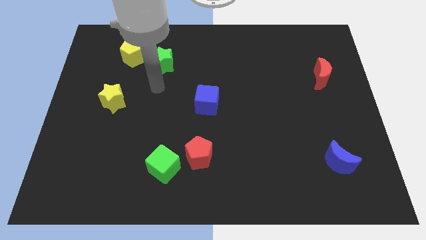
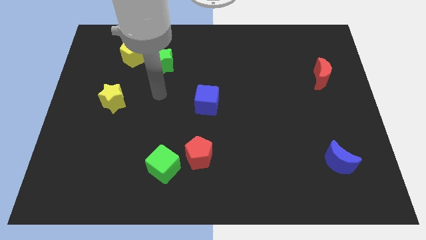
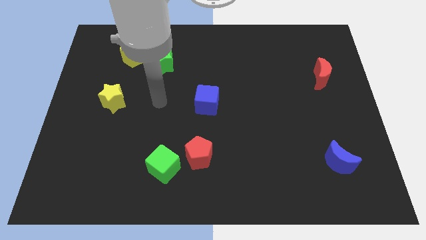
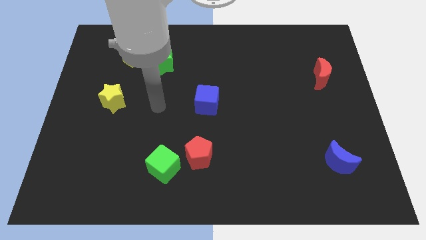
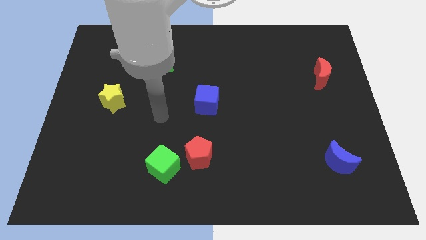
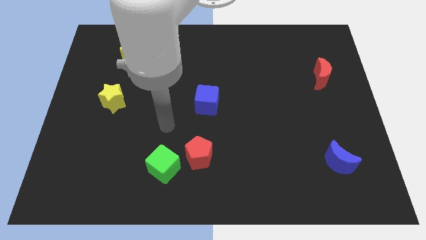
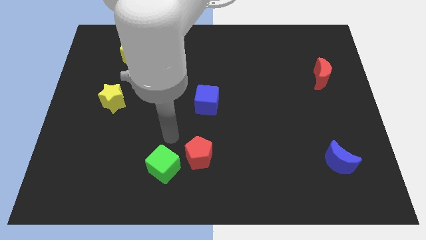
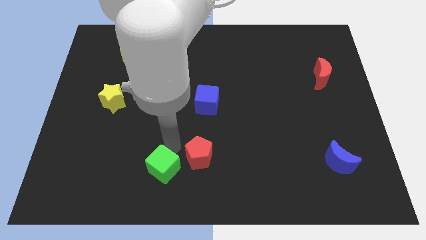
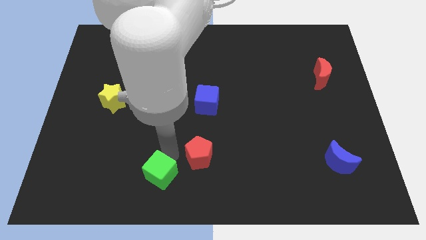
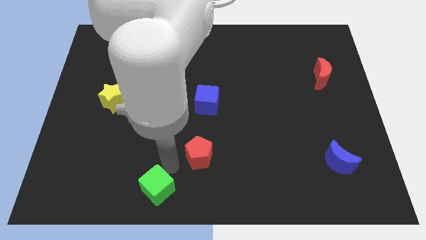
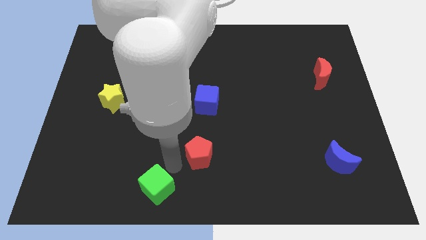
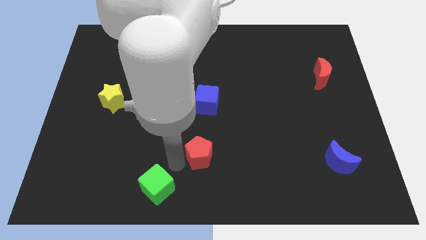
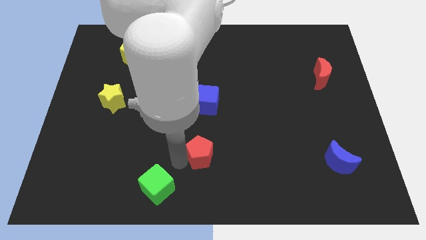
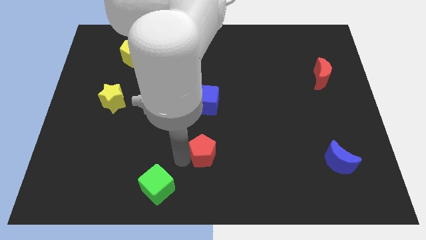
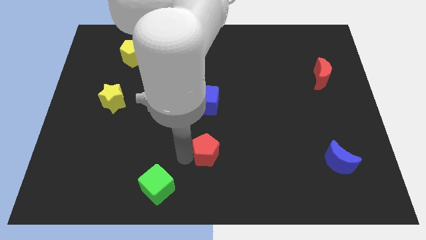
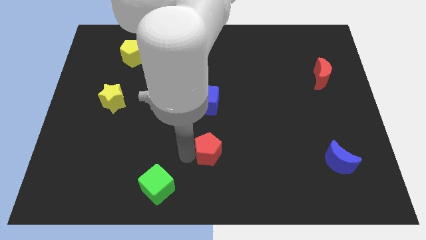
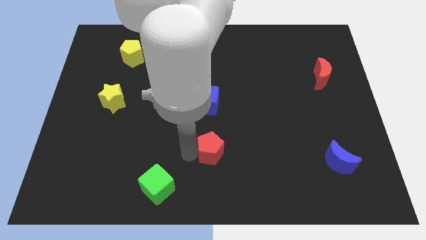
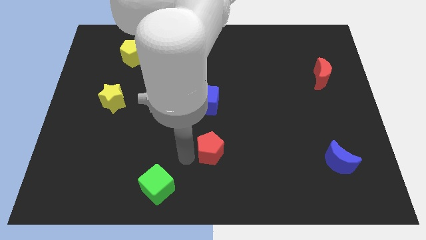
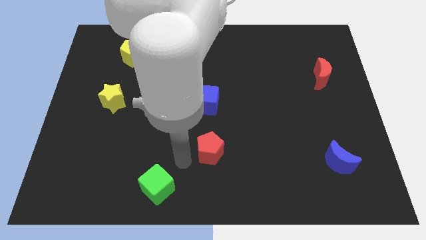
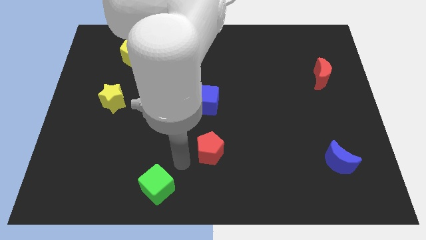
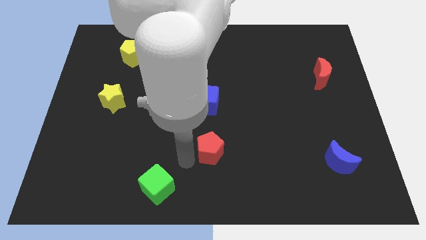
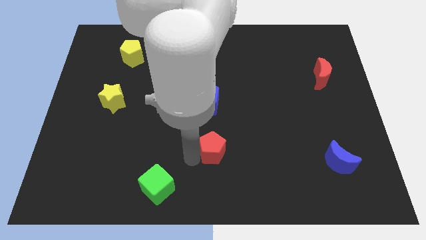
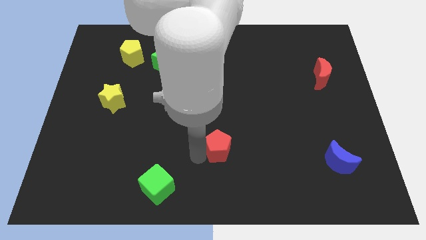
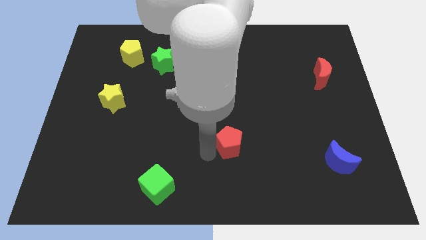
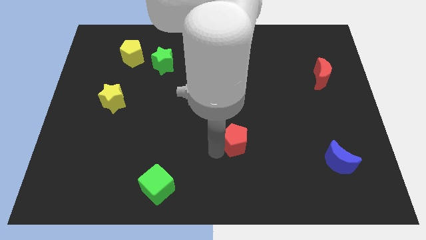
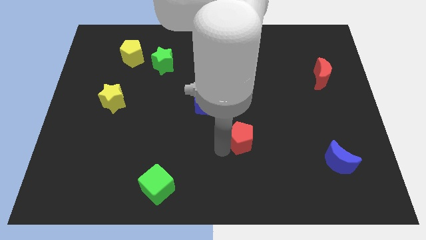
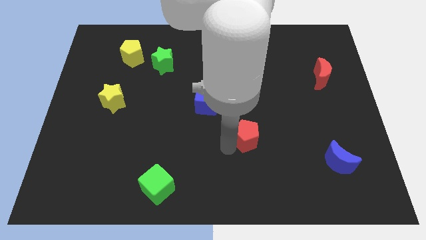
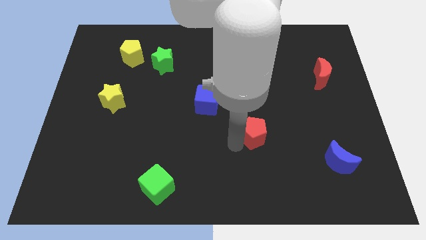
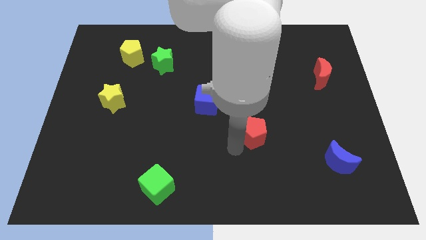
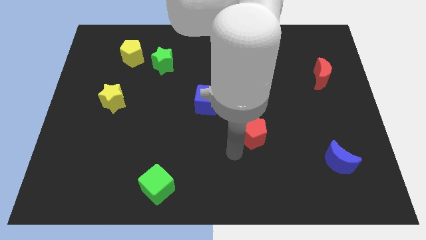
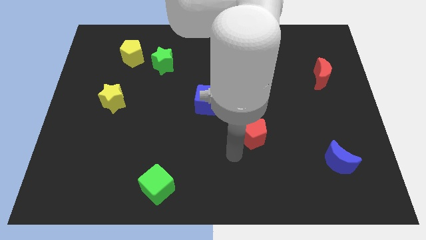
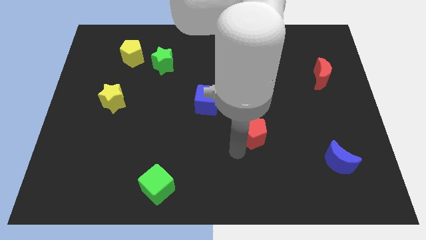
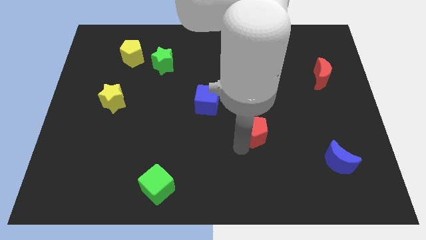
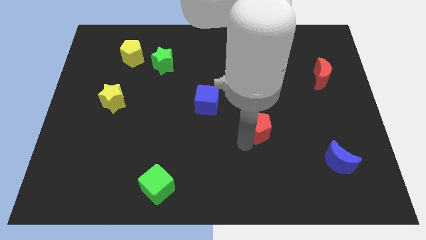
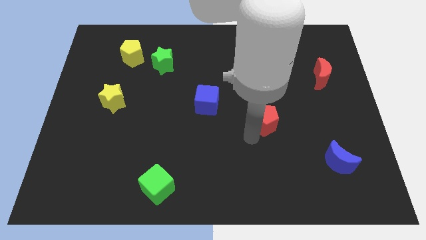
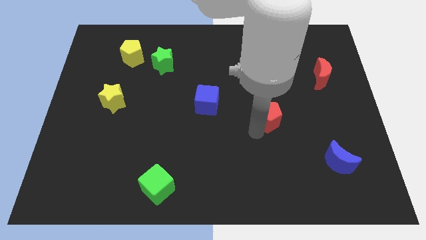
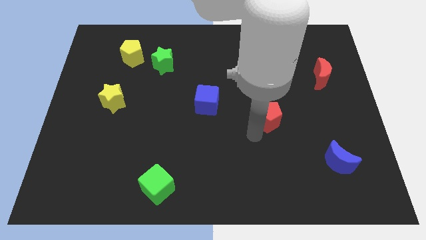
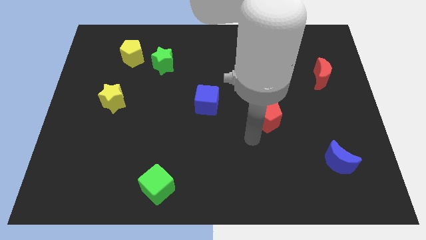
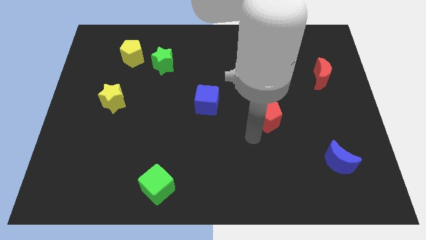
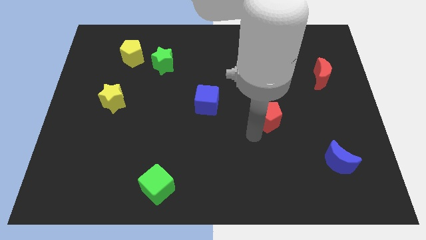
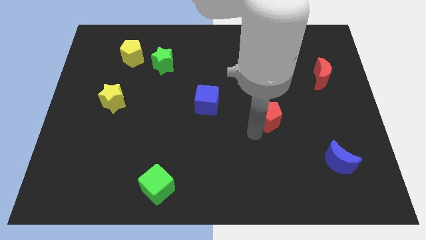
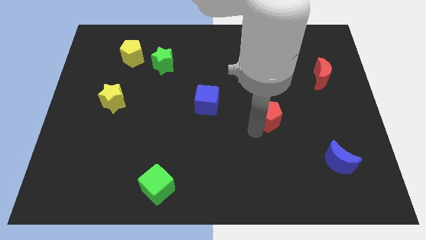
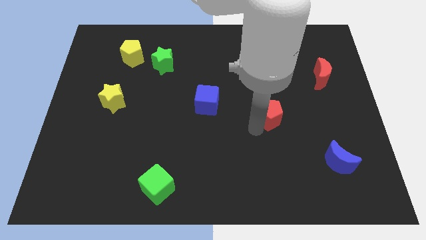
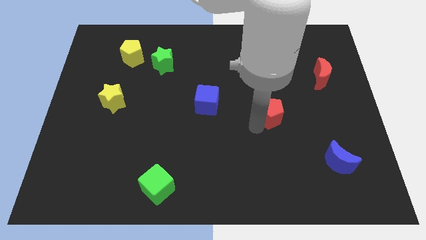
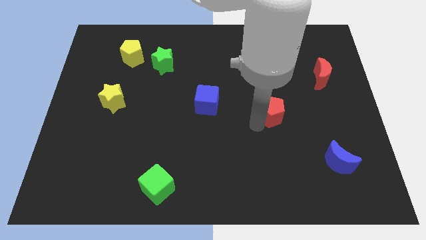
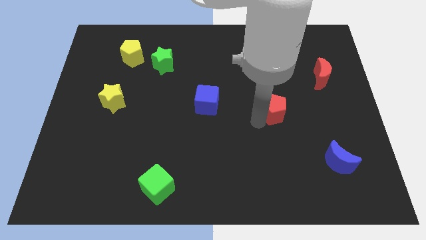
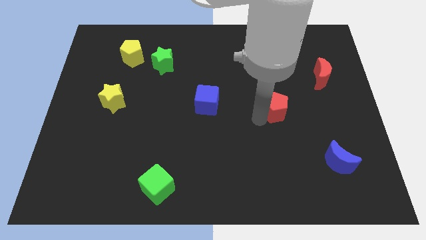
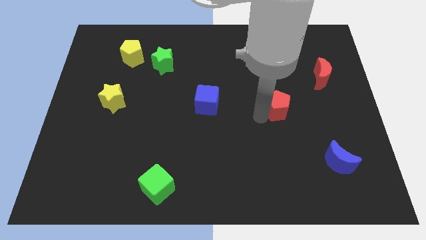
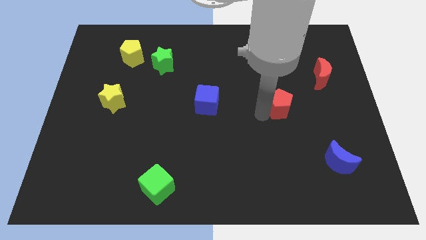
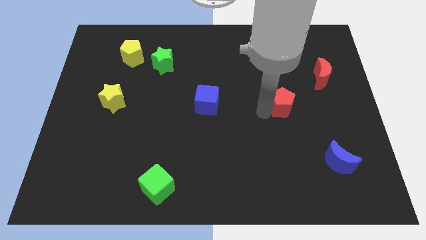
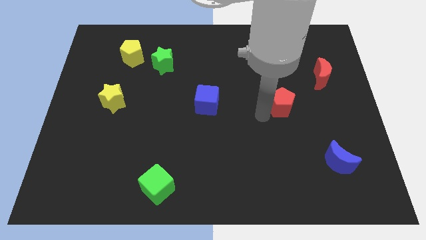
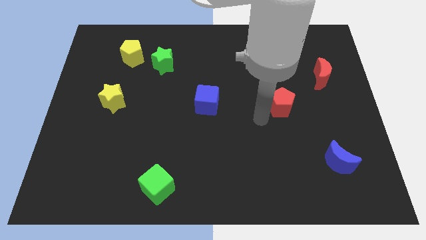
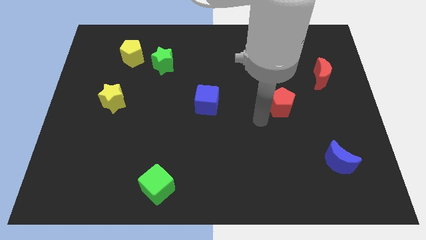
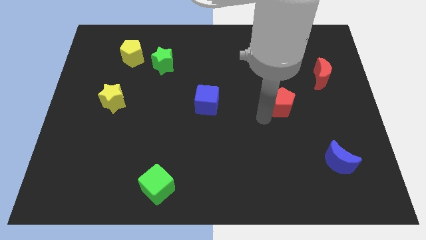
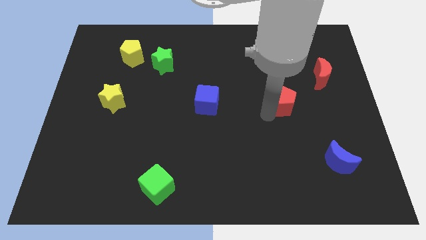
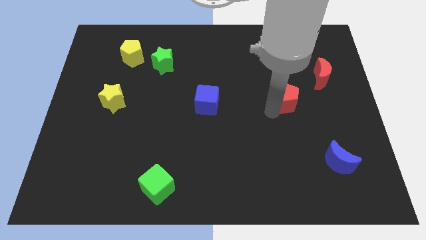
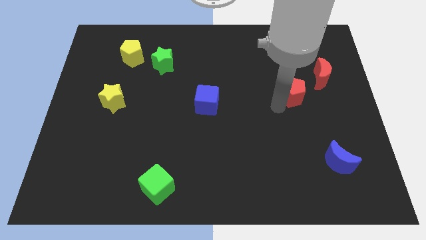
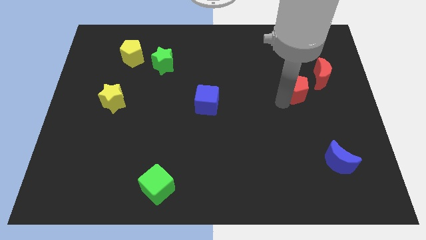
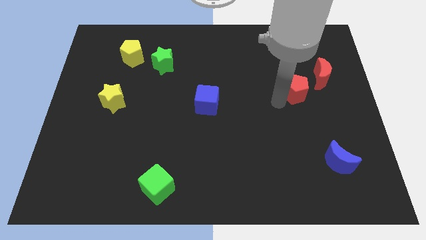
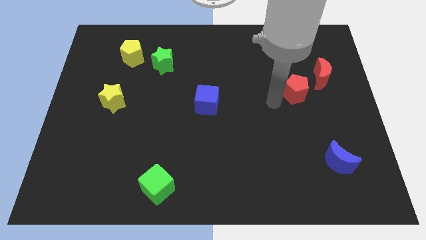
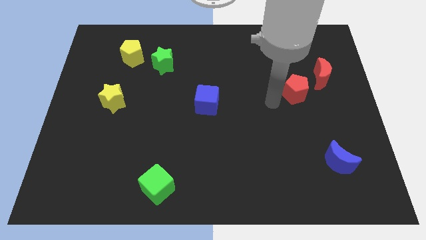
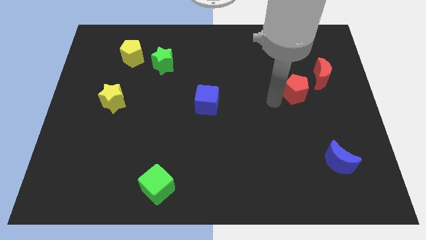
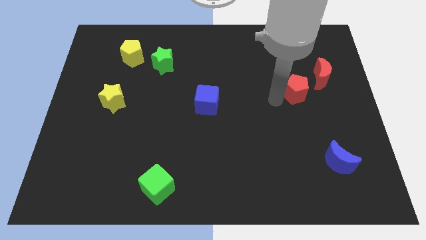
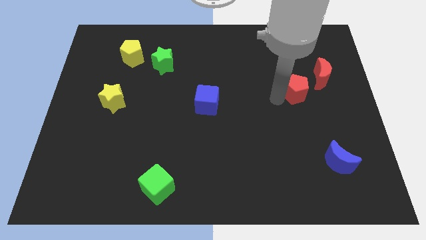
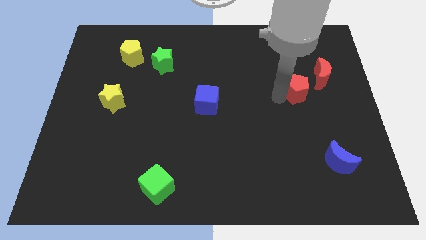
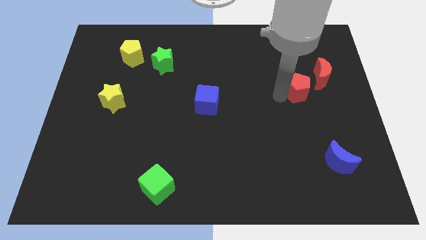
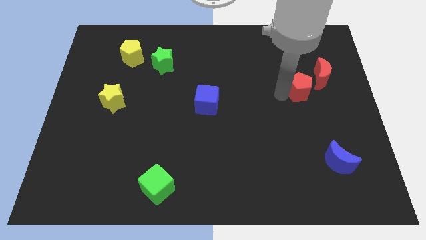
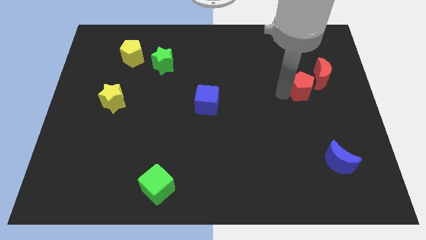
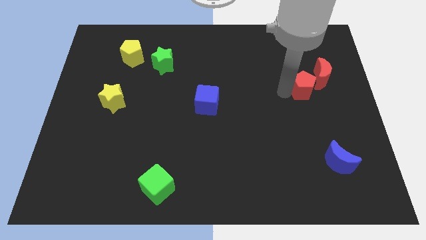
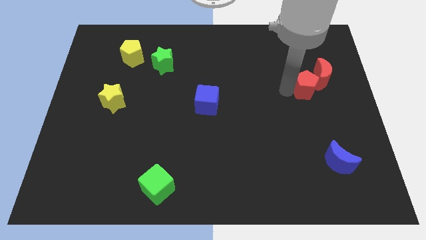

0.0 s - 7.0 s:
move the red pentagon towards the red moon

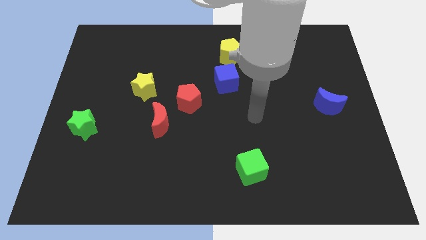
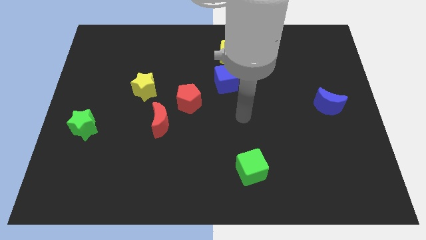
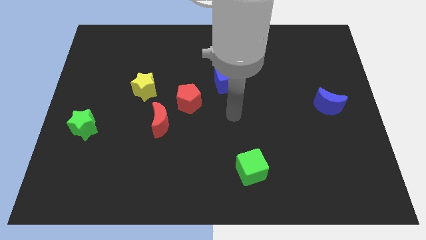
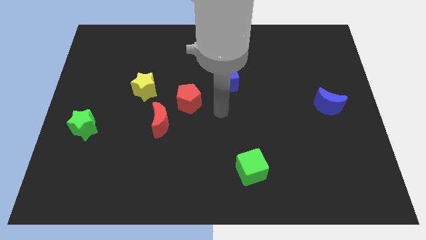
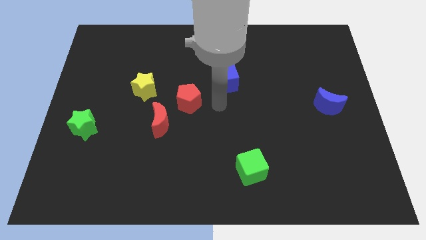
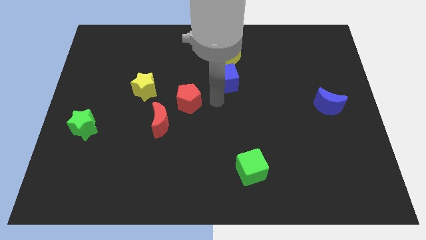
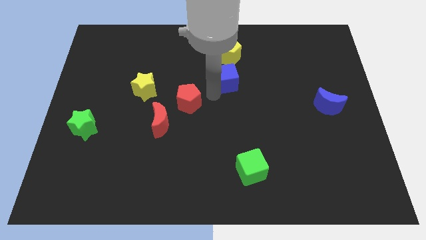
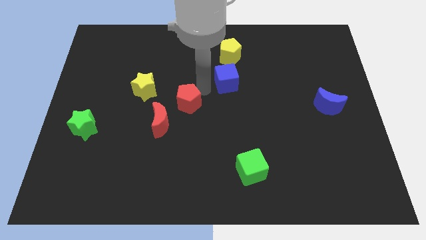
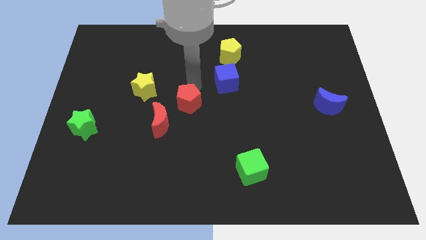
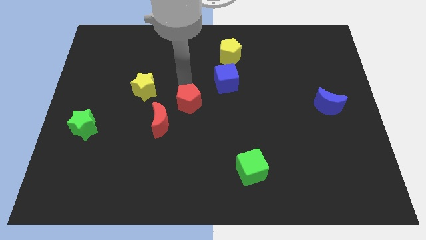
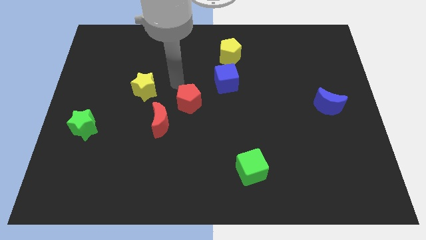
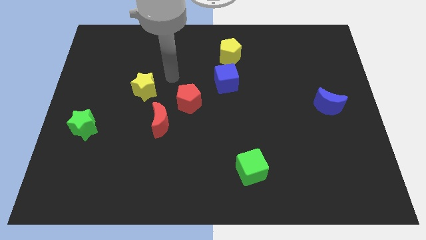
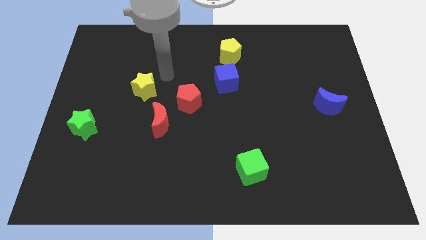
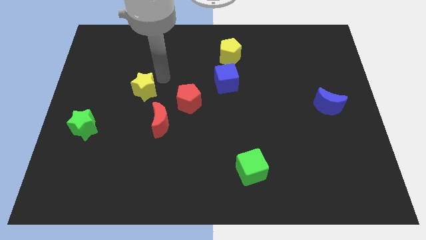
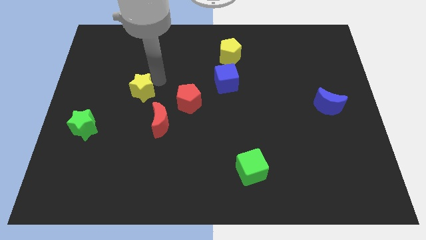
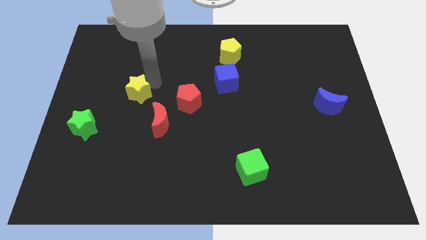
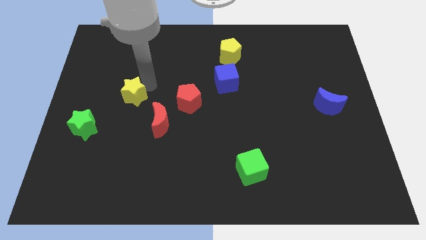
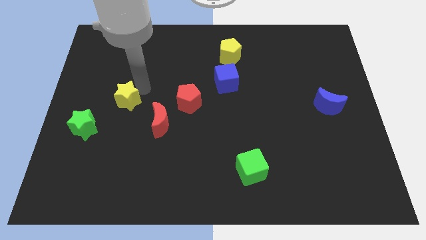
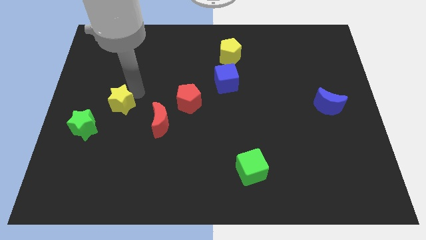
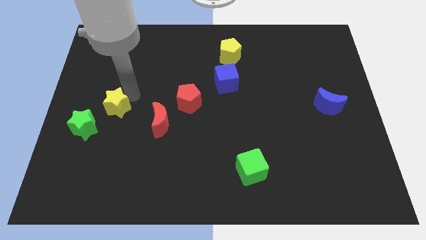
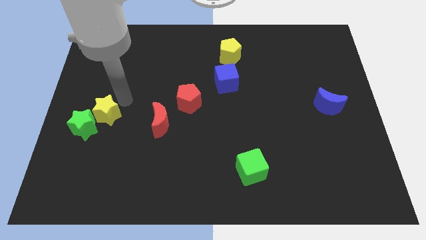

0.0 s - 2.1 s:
put the yellow star to the green star
